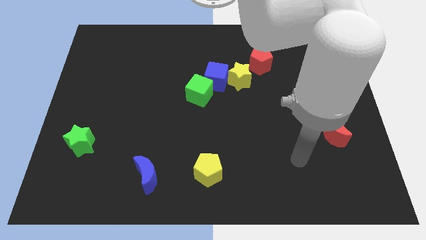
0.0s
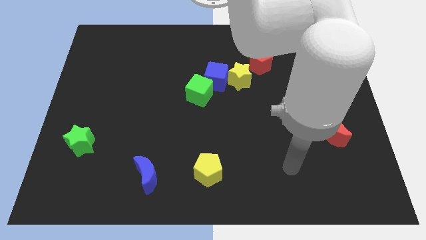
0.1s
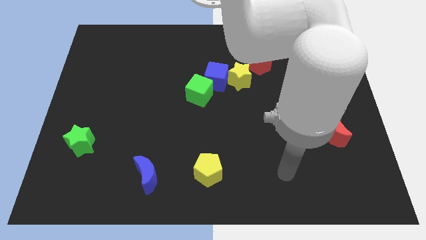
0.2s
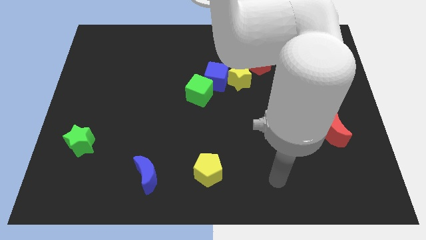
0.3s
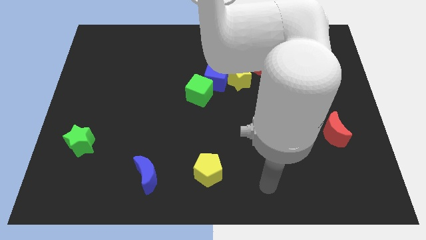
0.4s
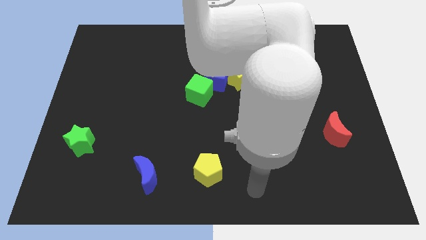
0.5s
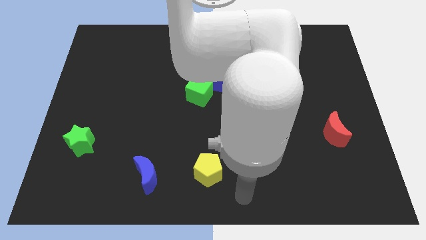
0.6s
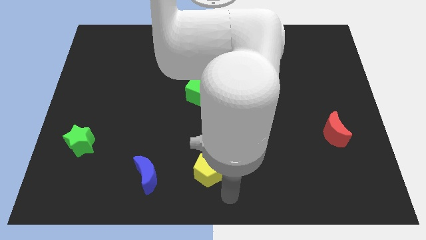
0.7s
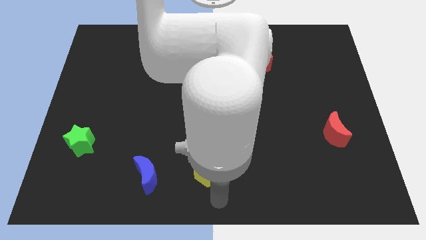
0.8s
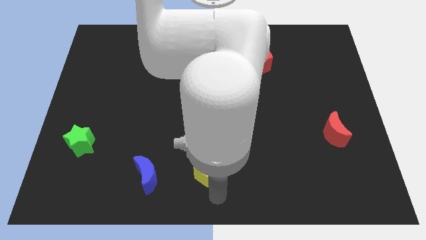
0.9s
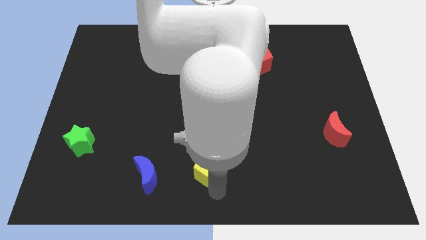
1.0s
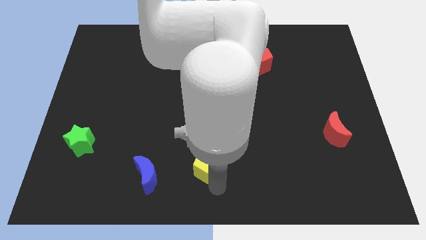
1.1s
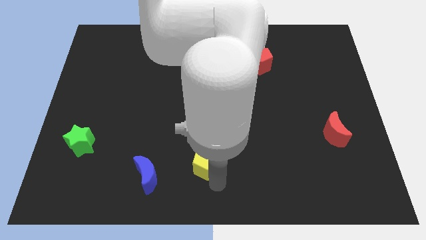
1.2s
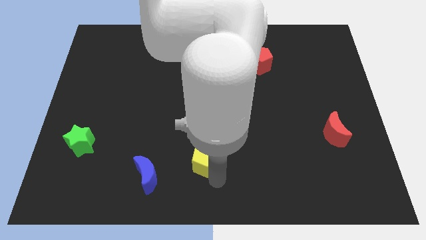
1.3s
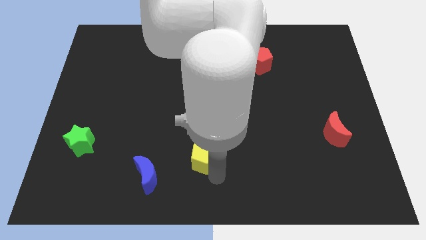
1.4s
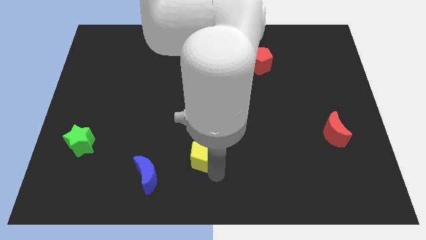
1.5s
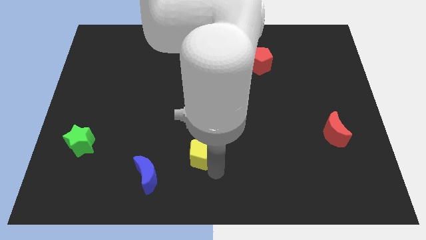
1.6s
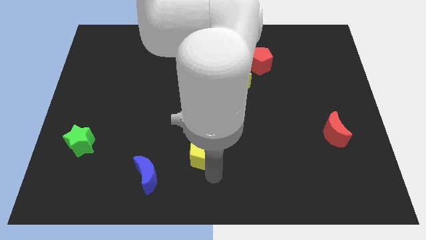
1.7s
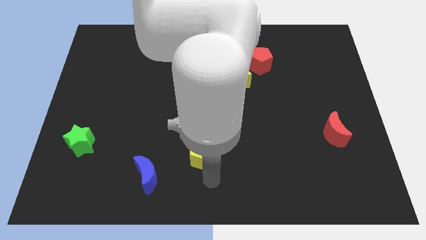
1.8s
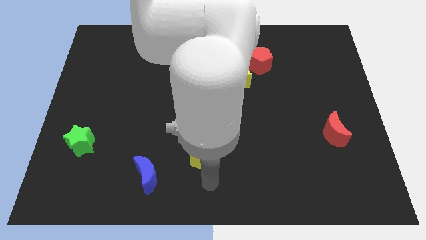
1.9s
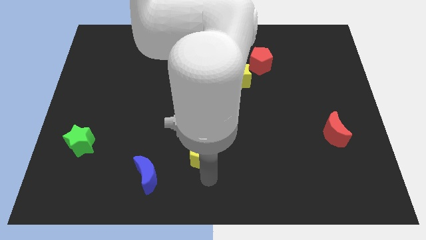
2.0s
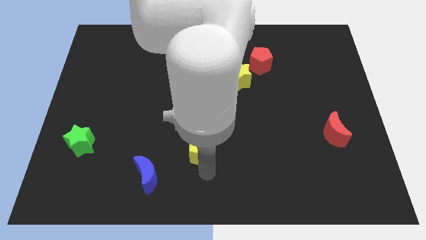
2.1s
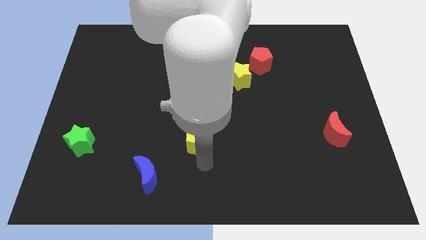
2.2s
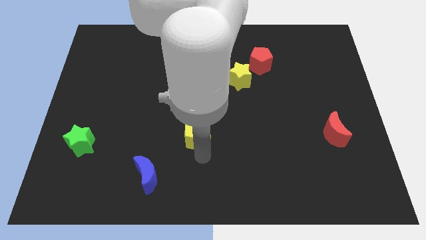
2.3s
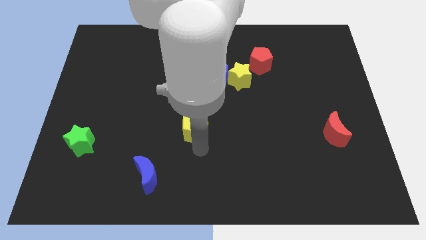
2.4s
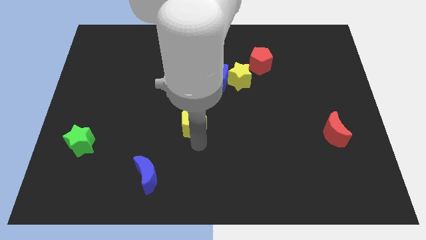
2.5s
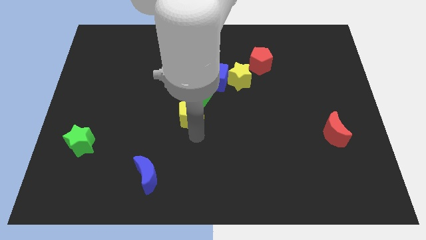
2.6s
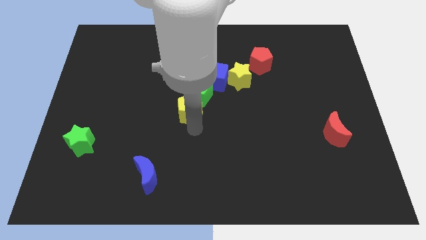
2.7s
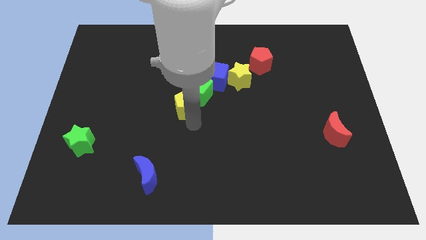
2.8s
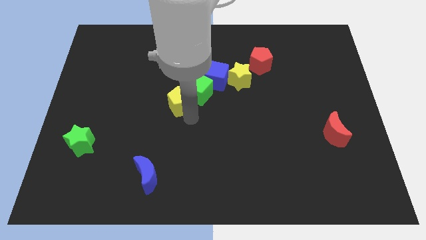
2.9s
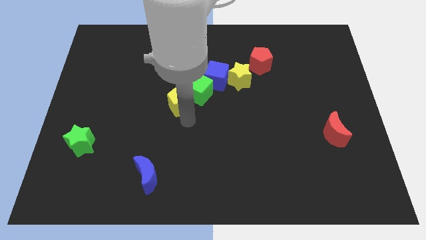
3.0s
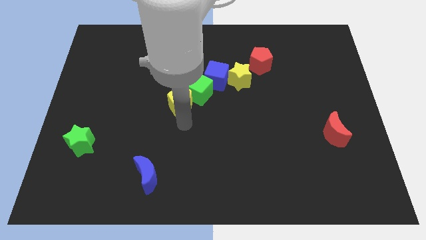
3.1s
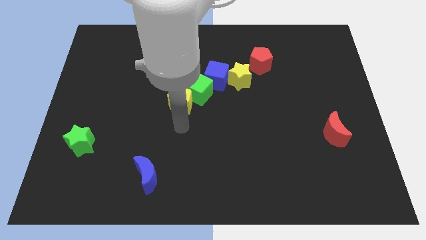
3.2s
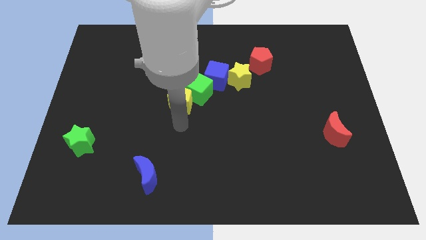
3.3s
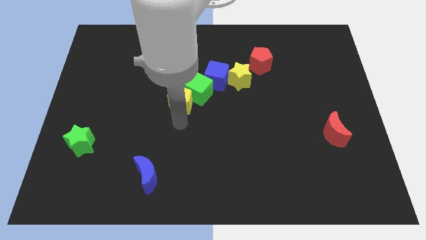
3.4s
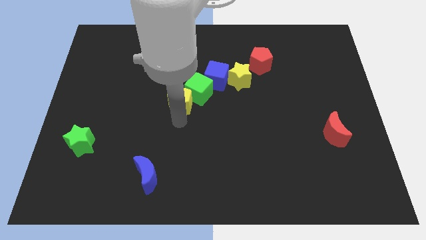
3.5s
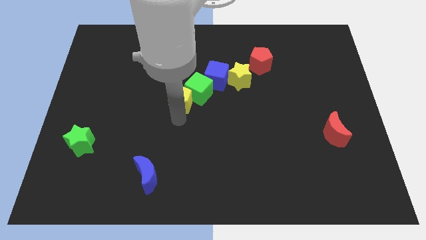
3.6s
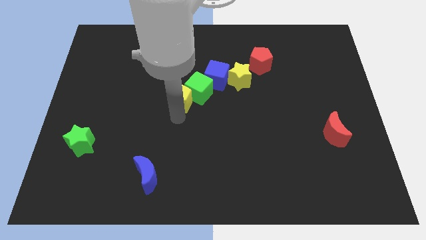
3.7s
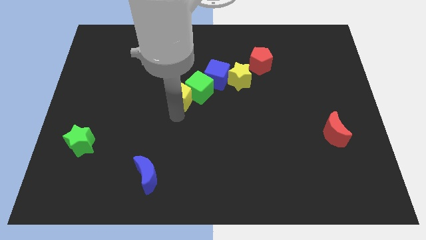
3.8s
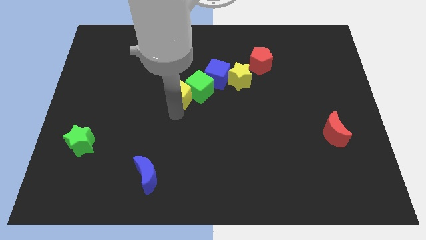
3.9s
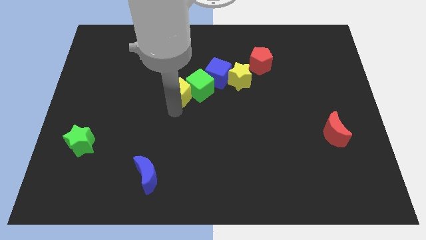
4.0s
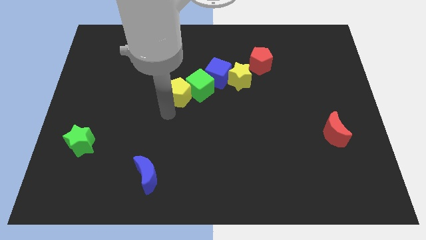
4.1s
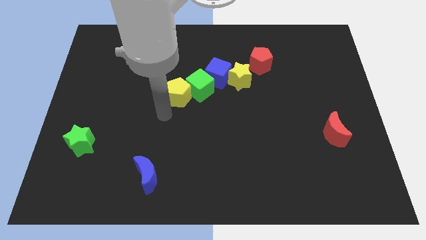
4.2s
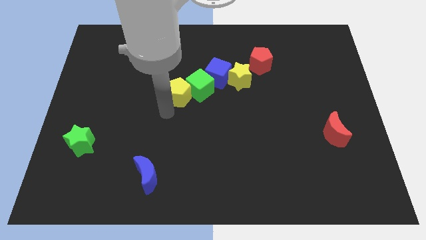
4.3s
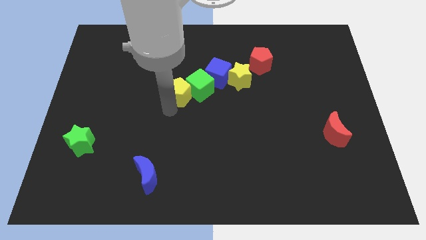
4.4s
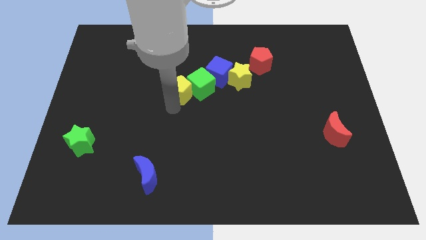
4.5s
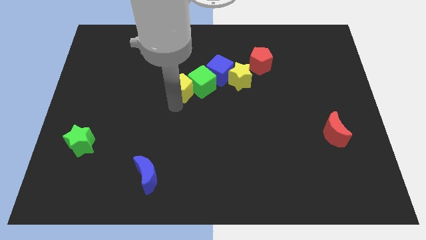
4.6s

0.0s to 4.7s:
move the yellow pentagon upwards

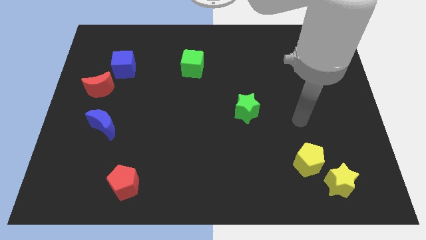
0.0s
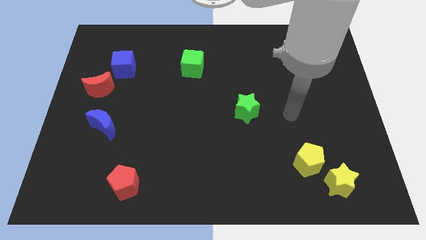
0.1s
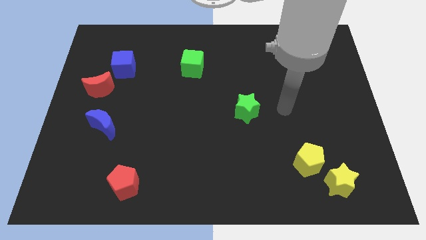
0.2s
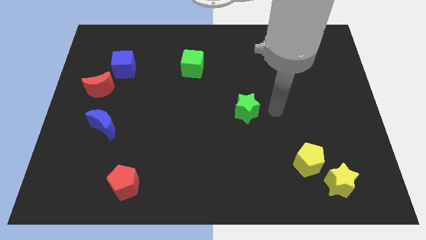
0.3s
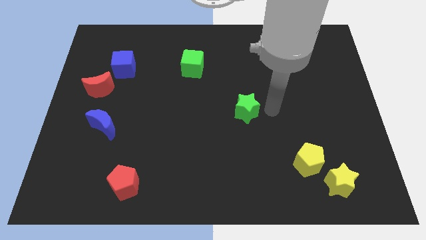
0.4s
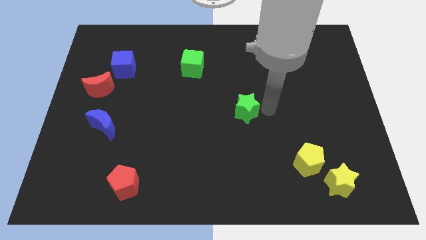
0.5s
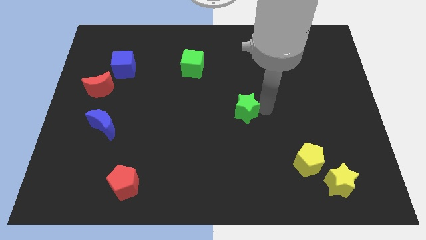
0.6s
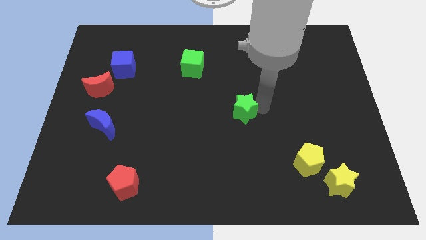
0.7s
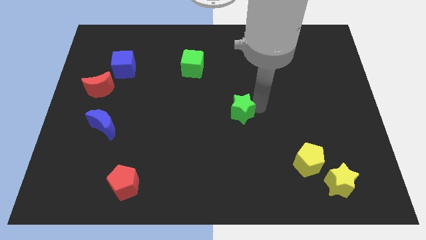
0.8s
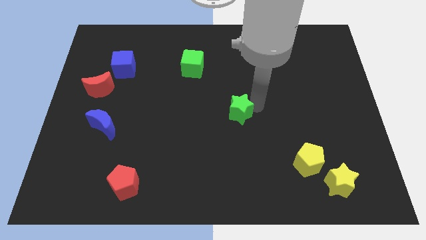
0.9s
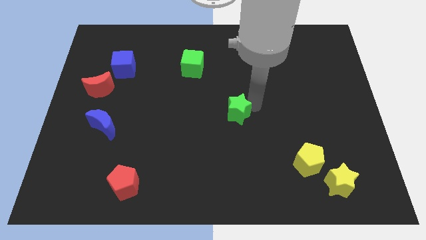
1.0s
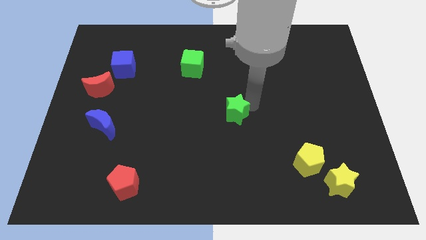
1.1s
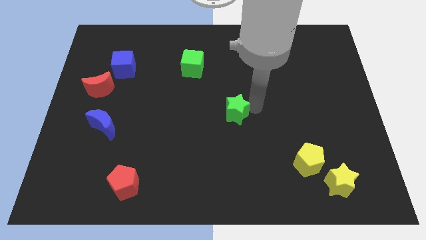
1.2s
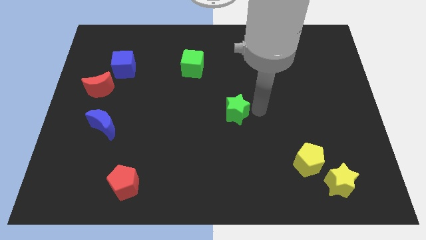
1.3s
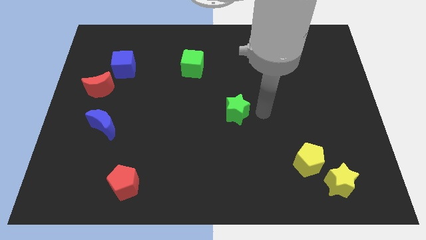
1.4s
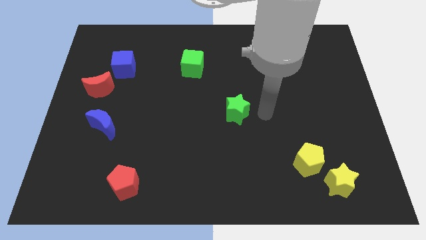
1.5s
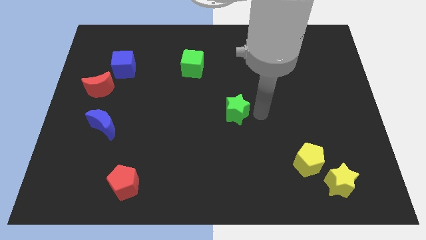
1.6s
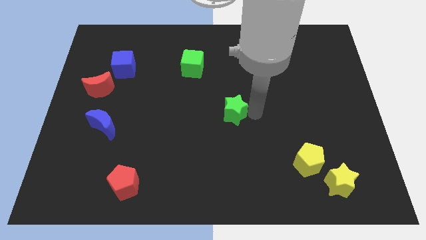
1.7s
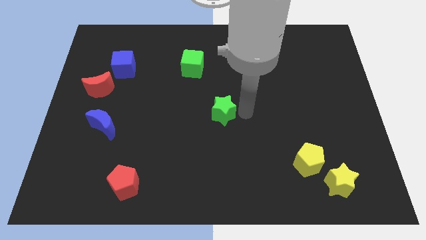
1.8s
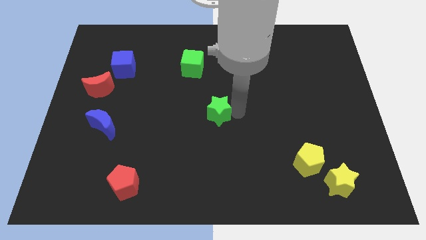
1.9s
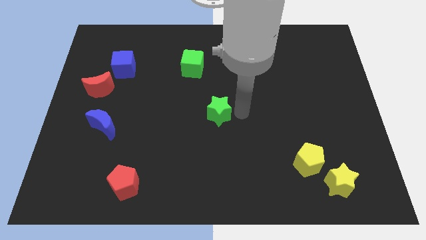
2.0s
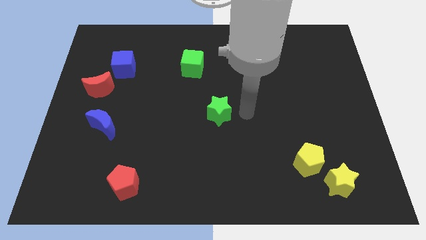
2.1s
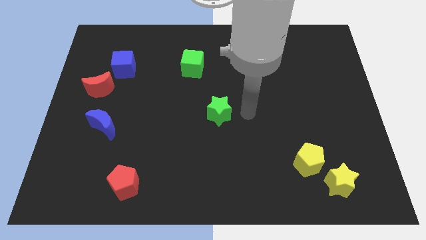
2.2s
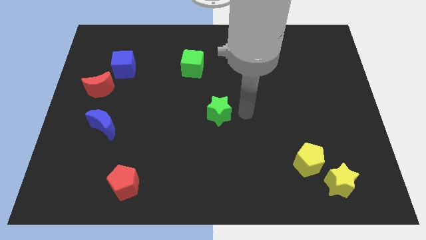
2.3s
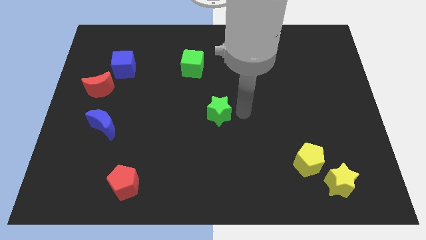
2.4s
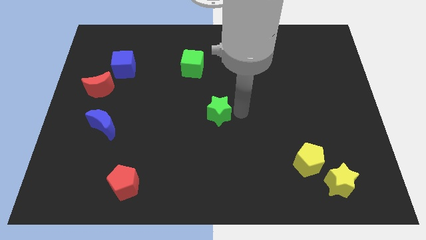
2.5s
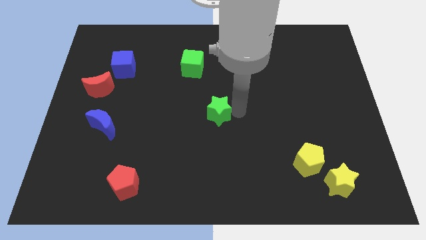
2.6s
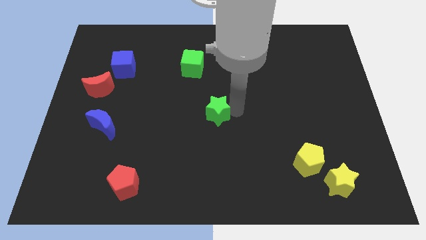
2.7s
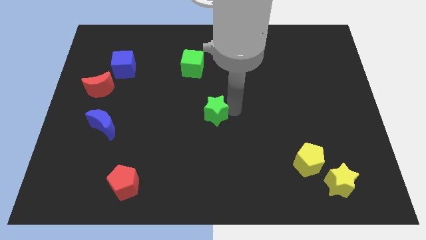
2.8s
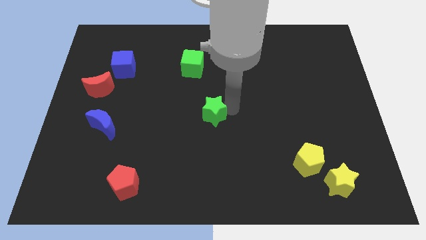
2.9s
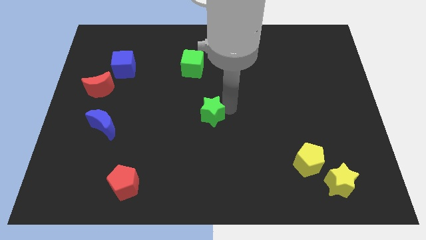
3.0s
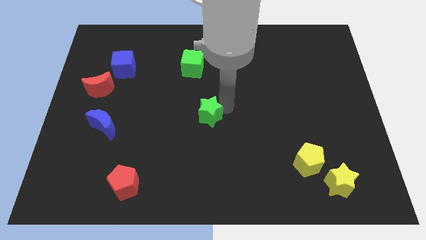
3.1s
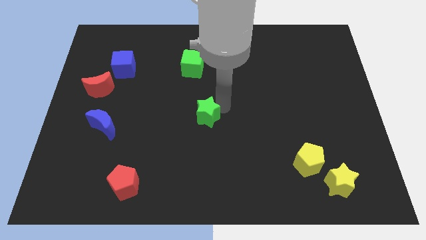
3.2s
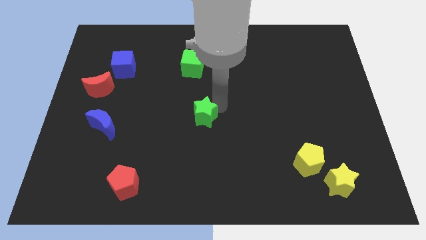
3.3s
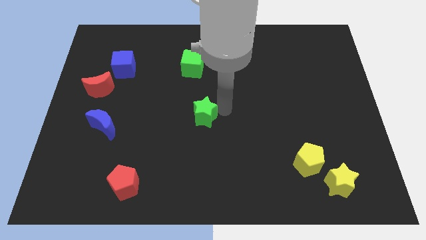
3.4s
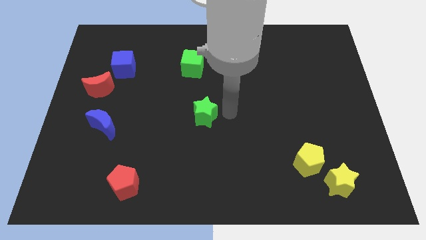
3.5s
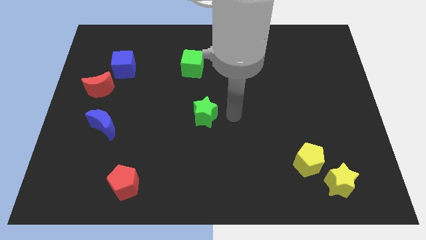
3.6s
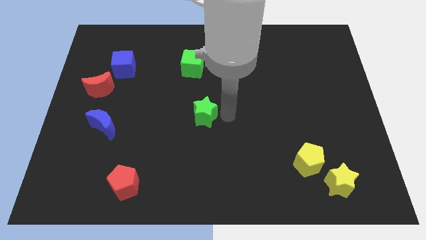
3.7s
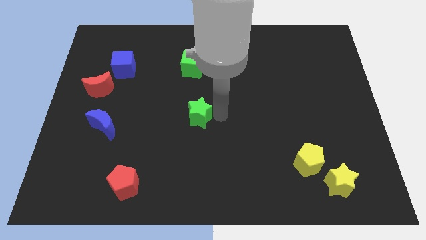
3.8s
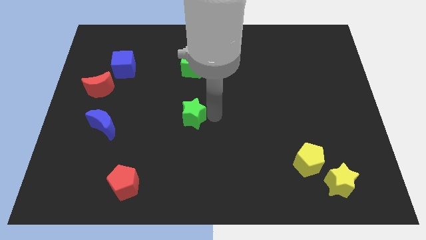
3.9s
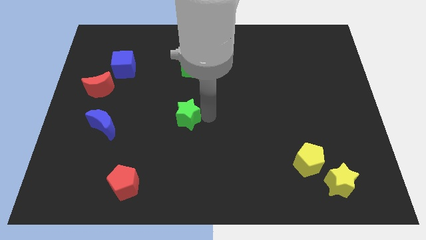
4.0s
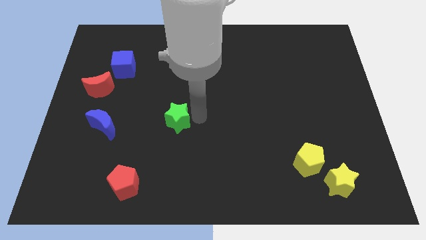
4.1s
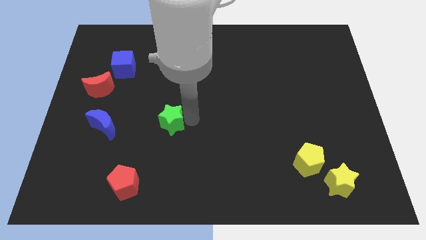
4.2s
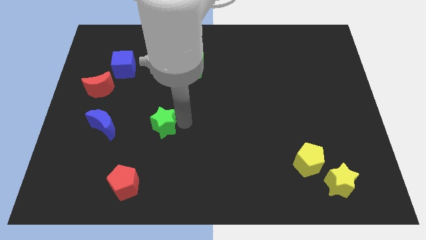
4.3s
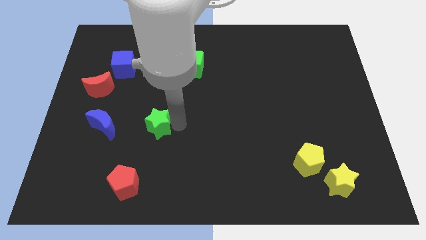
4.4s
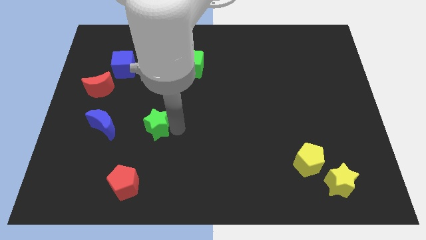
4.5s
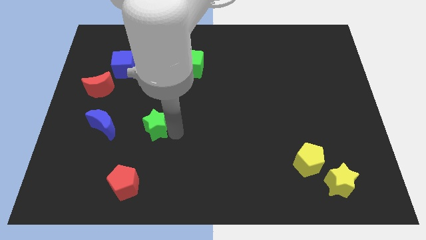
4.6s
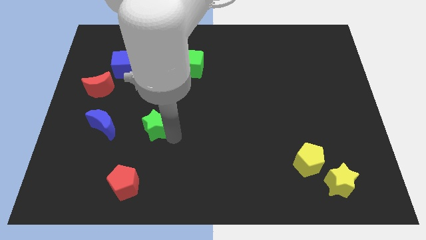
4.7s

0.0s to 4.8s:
move the green star left
